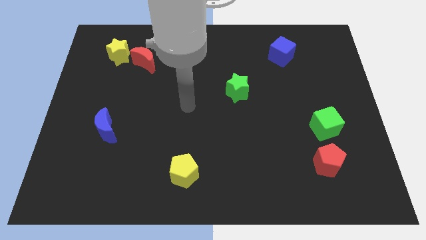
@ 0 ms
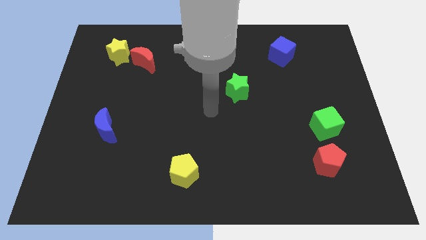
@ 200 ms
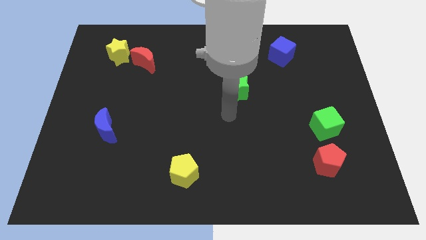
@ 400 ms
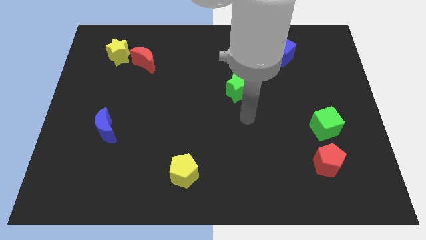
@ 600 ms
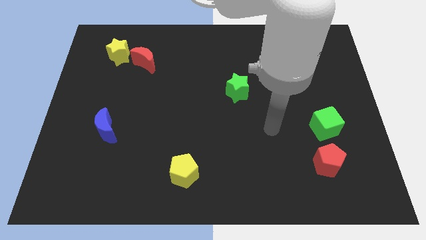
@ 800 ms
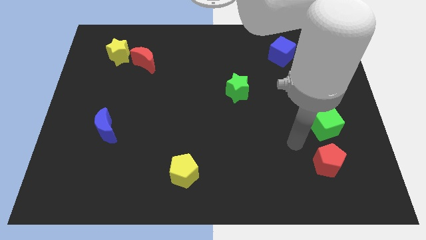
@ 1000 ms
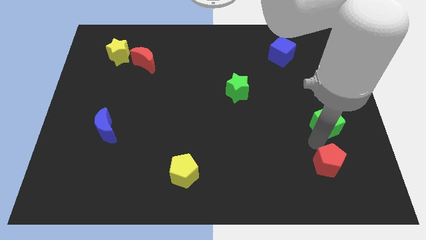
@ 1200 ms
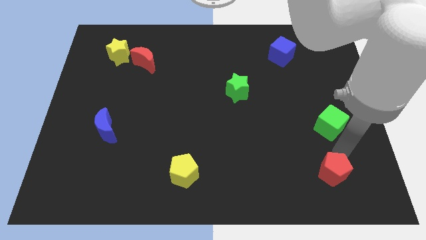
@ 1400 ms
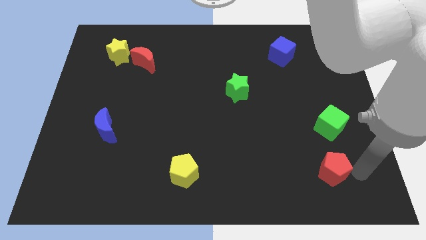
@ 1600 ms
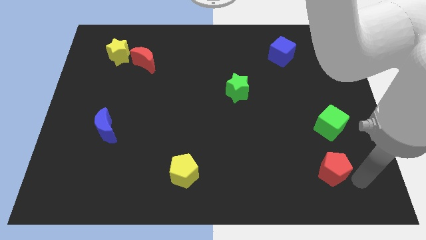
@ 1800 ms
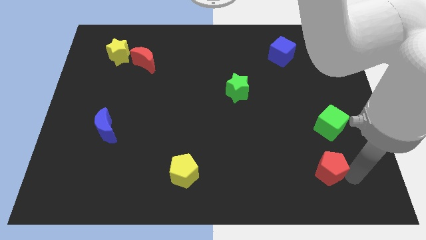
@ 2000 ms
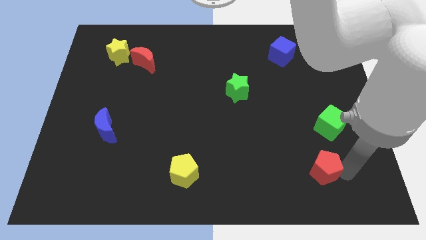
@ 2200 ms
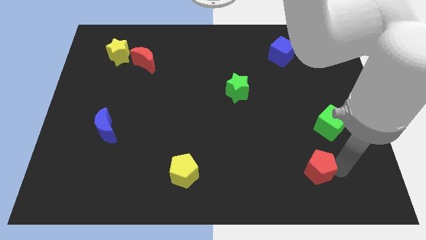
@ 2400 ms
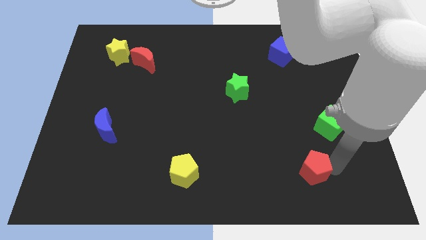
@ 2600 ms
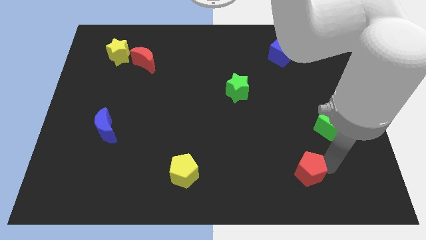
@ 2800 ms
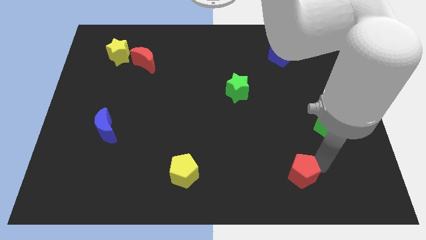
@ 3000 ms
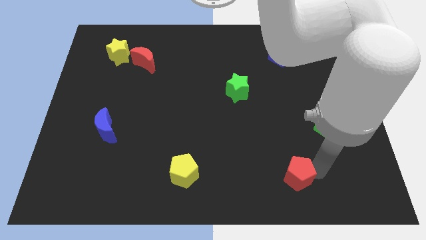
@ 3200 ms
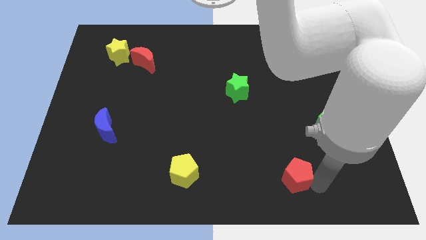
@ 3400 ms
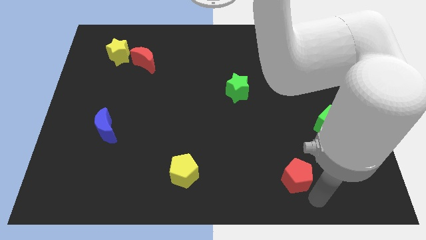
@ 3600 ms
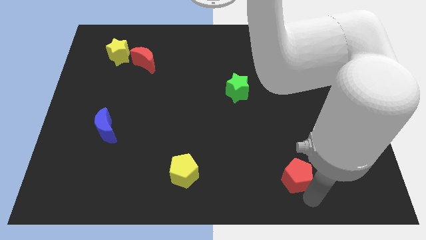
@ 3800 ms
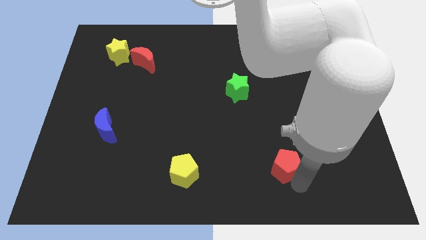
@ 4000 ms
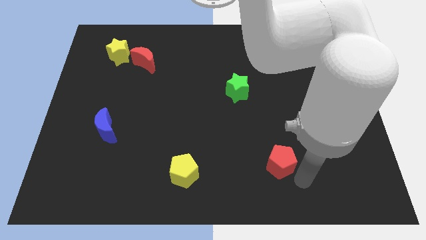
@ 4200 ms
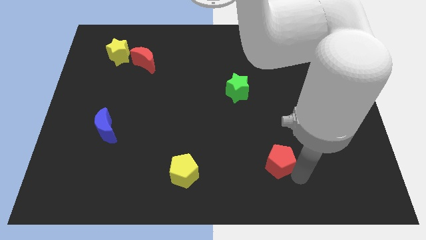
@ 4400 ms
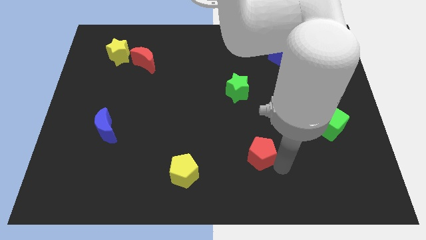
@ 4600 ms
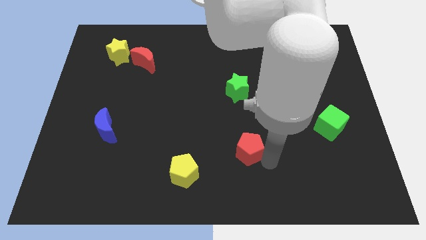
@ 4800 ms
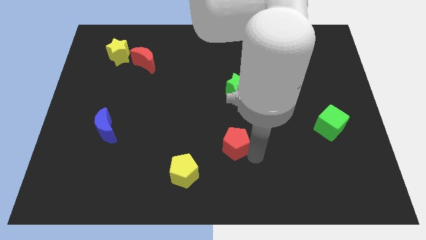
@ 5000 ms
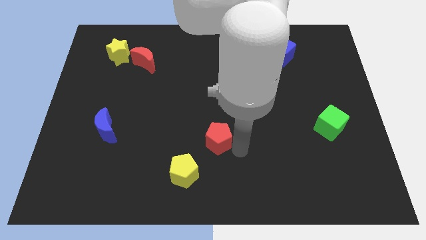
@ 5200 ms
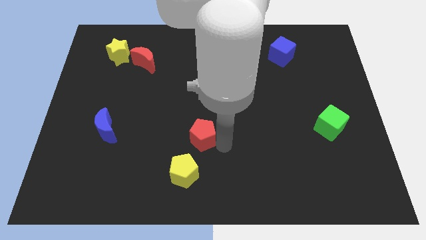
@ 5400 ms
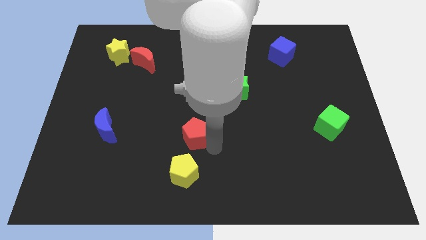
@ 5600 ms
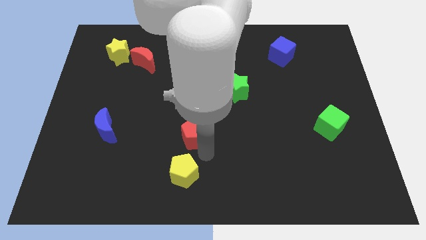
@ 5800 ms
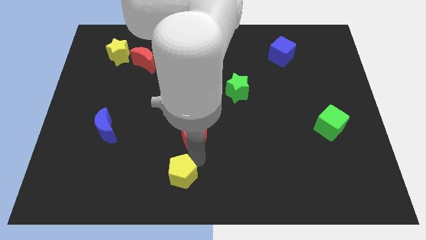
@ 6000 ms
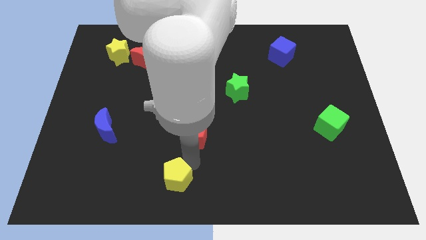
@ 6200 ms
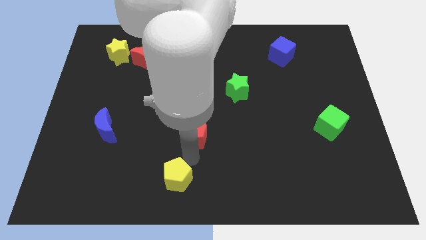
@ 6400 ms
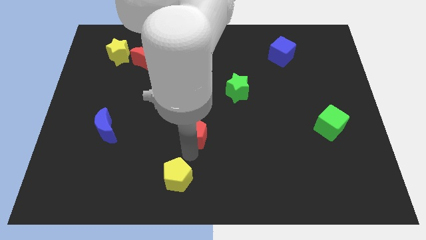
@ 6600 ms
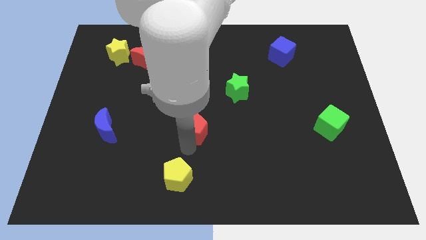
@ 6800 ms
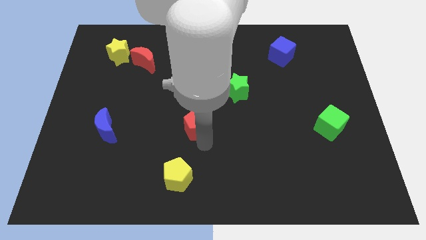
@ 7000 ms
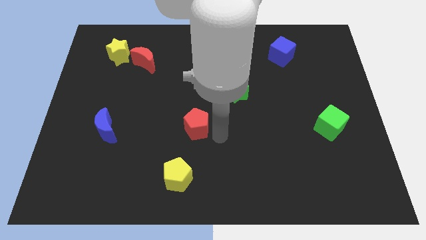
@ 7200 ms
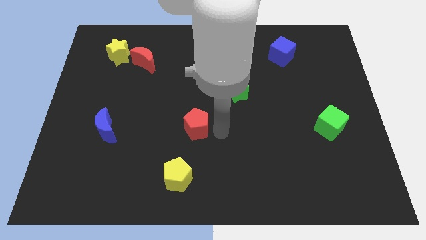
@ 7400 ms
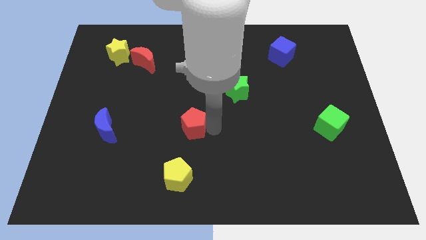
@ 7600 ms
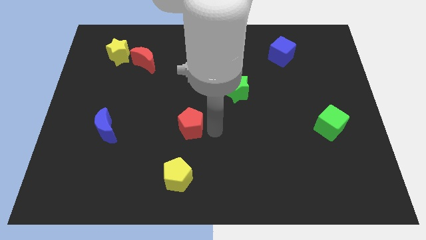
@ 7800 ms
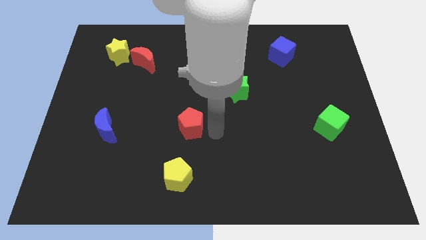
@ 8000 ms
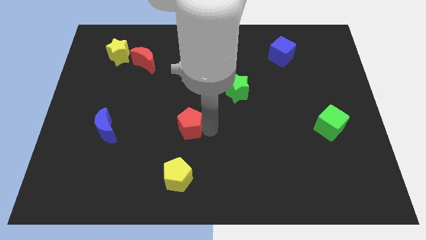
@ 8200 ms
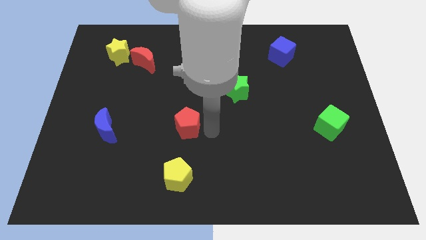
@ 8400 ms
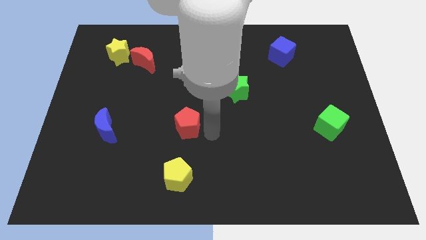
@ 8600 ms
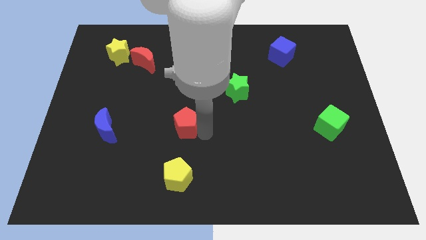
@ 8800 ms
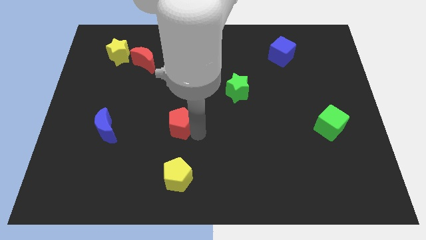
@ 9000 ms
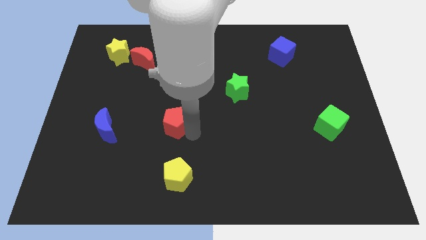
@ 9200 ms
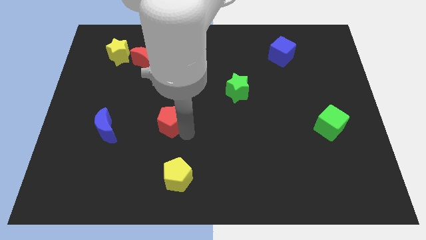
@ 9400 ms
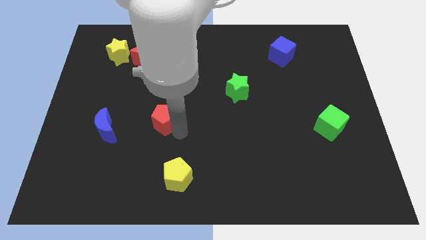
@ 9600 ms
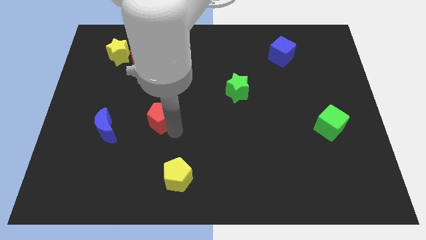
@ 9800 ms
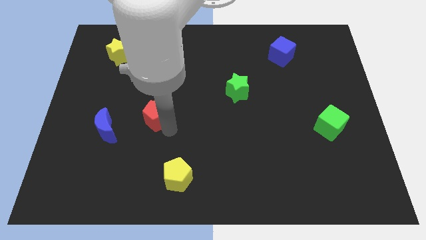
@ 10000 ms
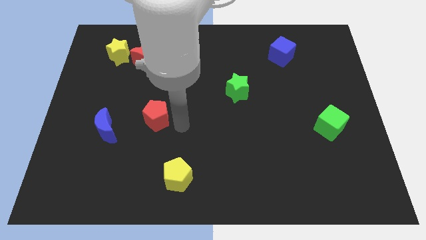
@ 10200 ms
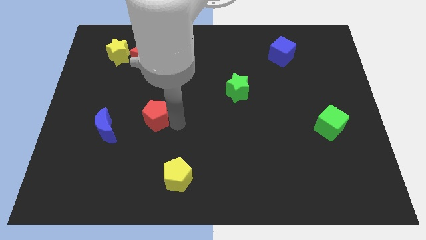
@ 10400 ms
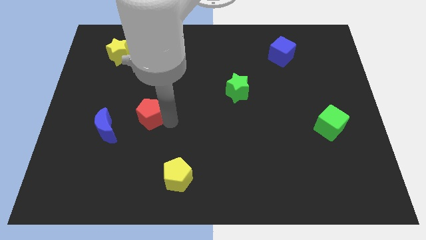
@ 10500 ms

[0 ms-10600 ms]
push the red pentagon diagonally up and to the right of the blue moon

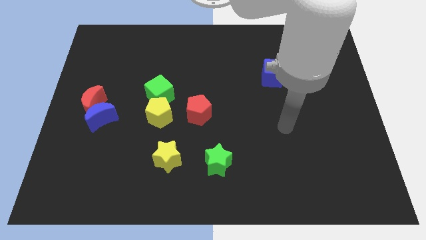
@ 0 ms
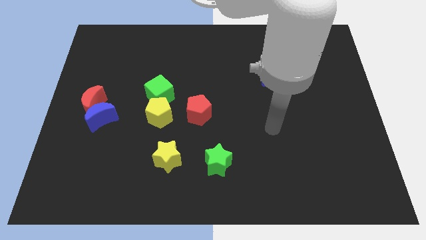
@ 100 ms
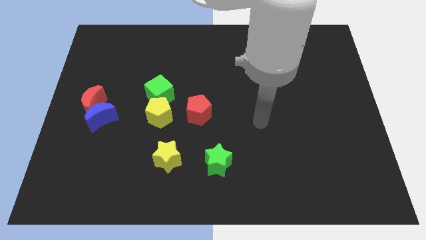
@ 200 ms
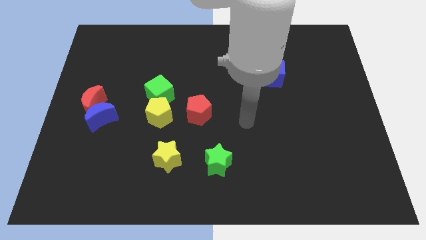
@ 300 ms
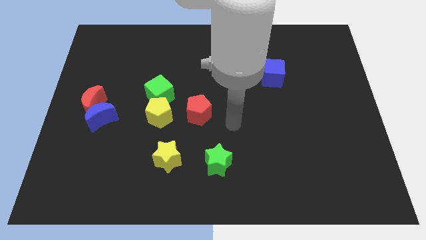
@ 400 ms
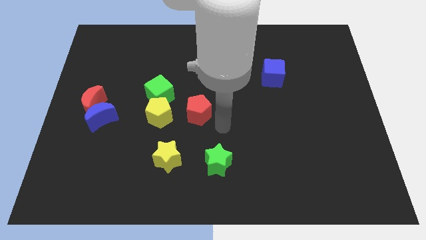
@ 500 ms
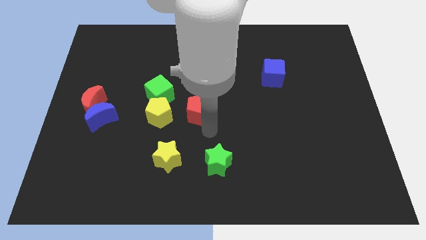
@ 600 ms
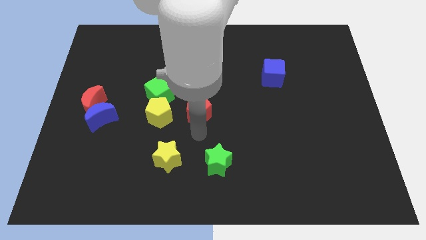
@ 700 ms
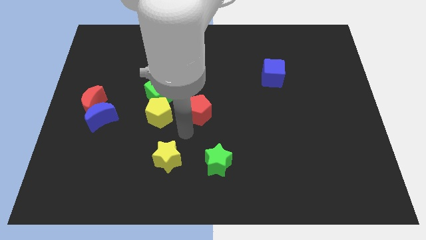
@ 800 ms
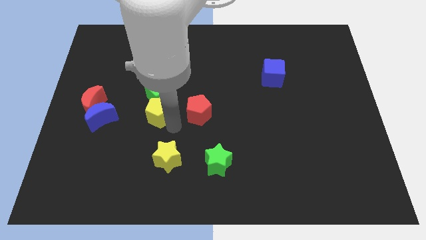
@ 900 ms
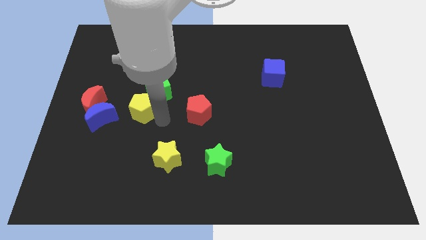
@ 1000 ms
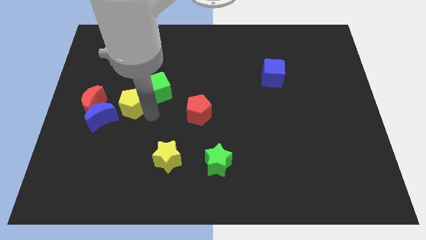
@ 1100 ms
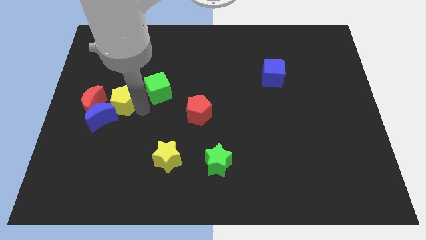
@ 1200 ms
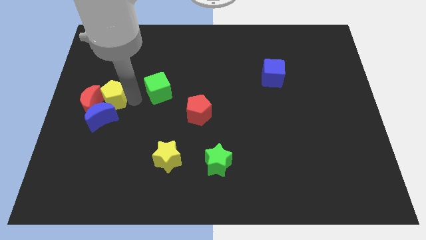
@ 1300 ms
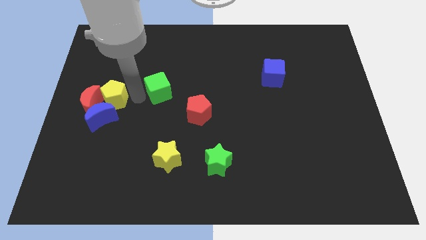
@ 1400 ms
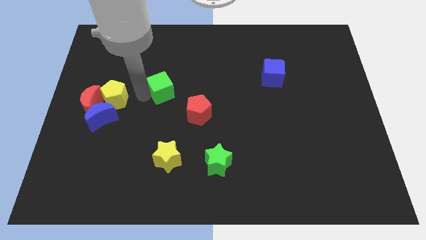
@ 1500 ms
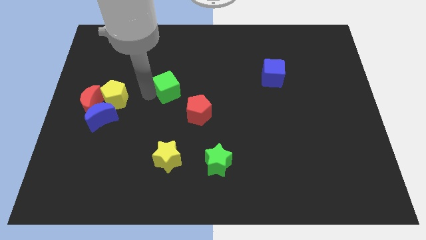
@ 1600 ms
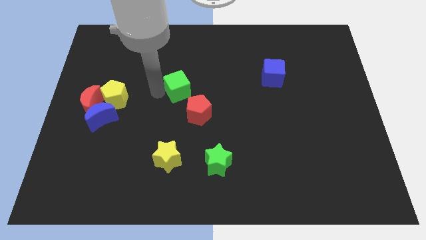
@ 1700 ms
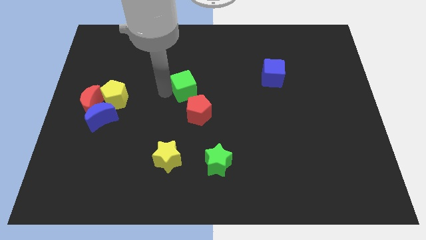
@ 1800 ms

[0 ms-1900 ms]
slide the green cube above the red pentagon
